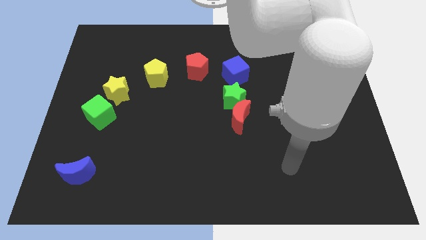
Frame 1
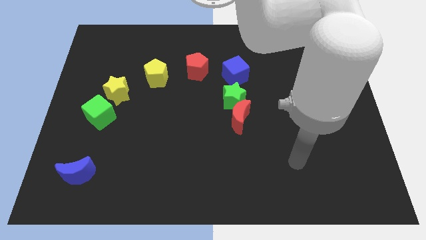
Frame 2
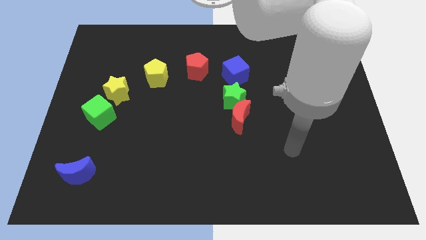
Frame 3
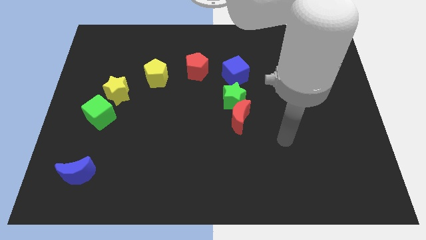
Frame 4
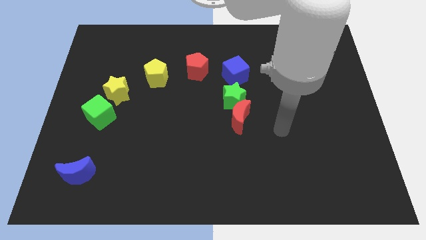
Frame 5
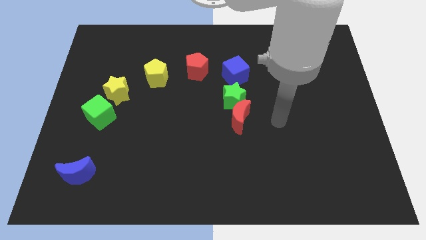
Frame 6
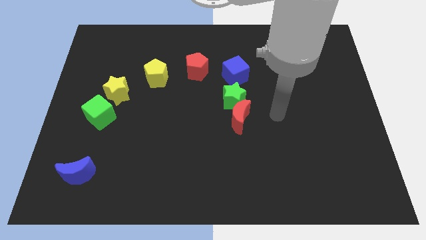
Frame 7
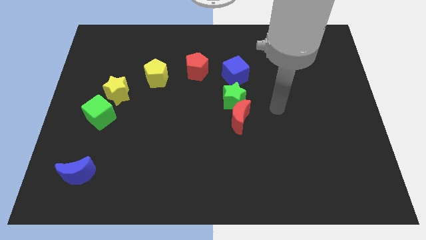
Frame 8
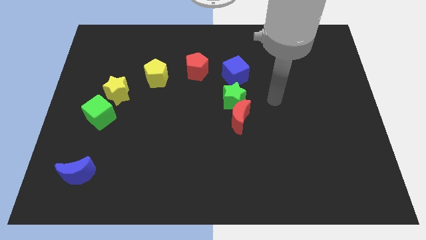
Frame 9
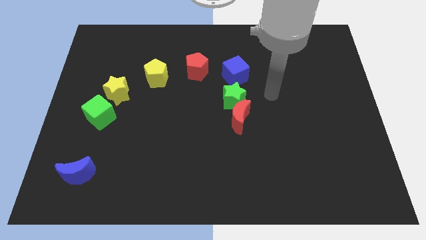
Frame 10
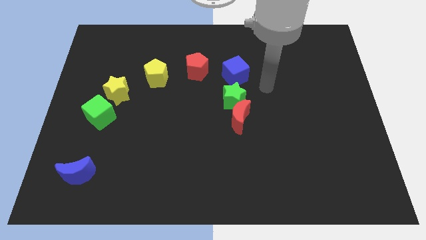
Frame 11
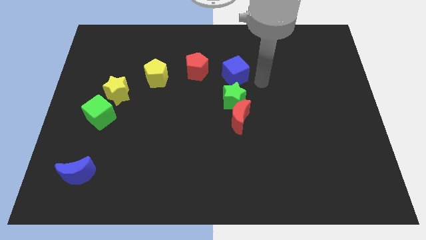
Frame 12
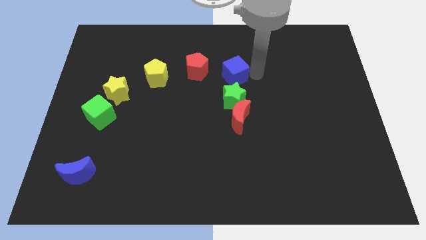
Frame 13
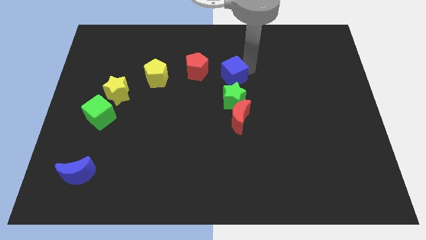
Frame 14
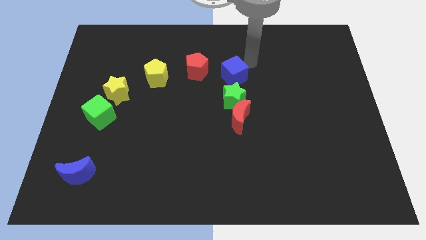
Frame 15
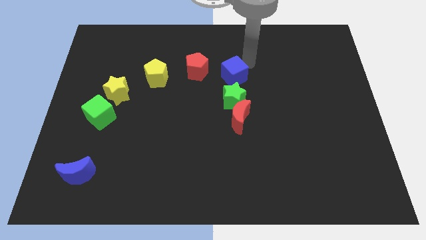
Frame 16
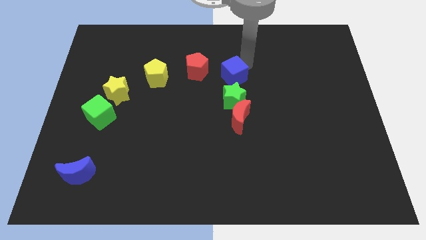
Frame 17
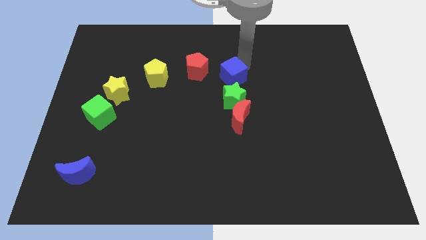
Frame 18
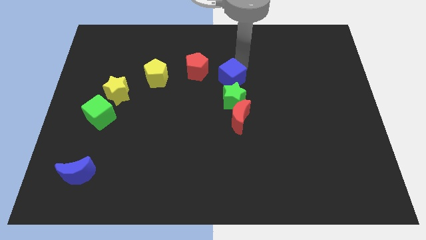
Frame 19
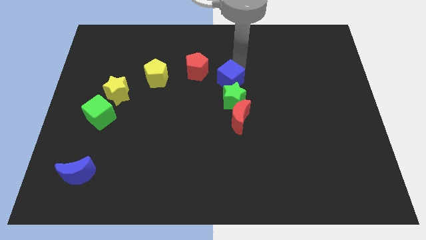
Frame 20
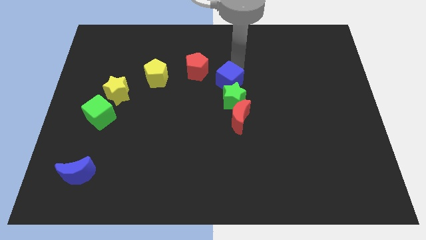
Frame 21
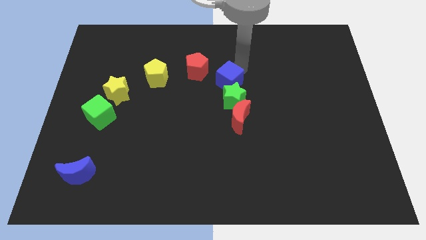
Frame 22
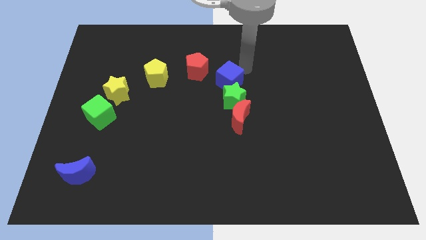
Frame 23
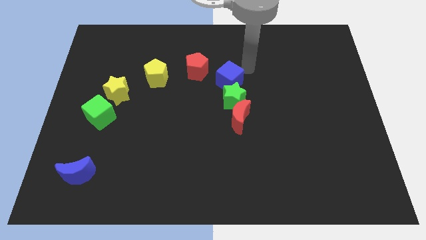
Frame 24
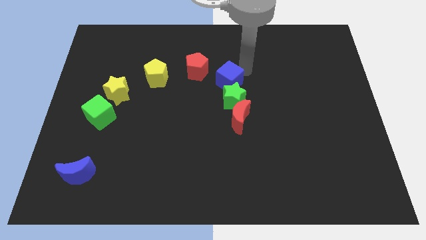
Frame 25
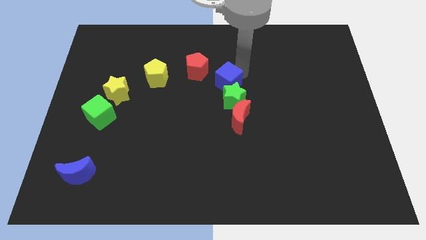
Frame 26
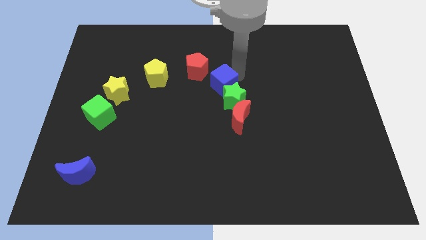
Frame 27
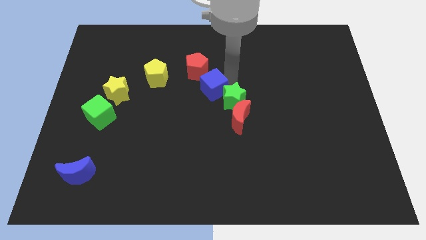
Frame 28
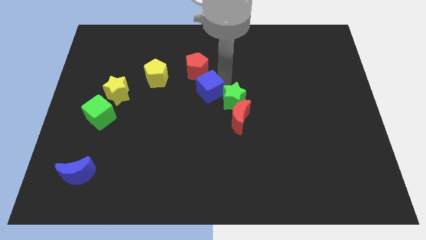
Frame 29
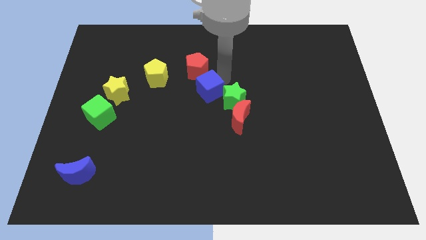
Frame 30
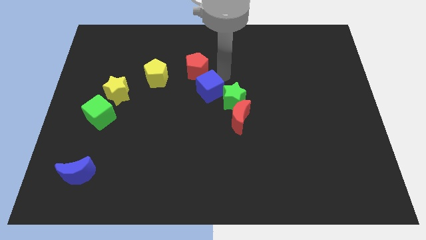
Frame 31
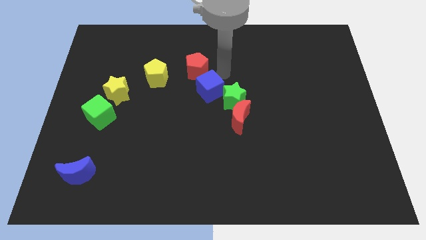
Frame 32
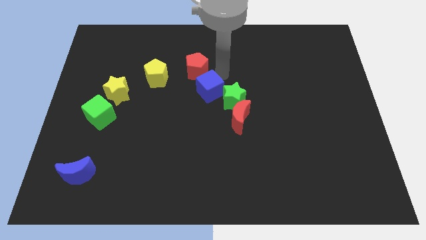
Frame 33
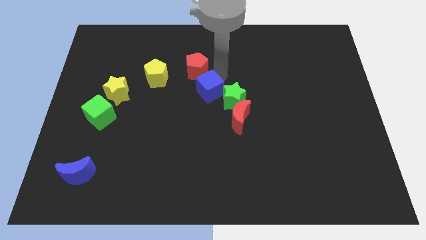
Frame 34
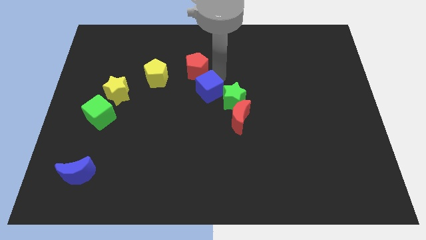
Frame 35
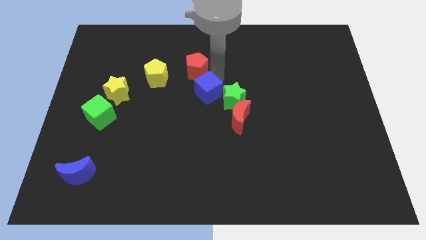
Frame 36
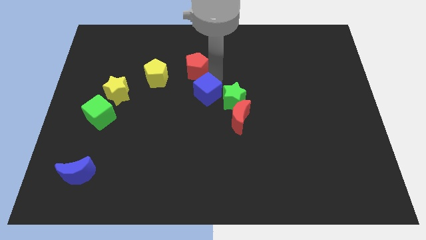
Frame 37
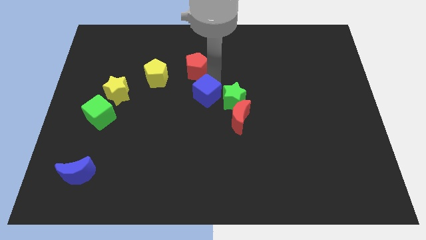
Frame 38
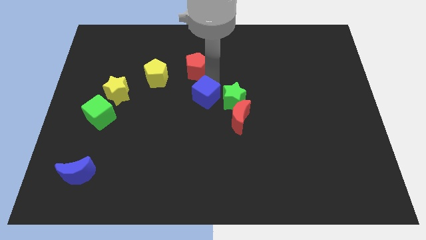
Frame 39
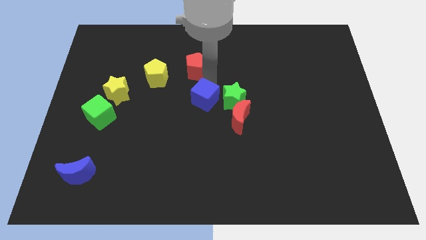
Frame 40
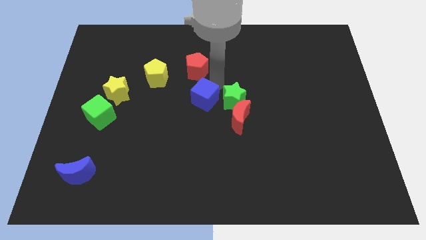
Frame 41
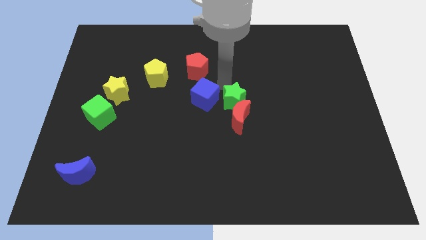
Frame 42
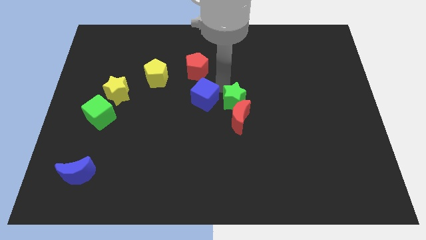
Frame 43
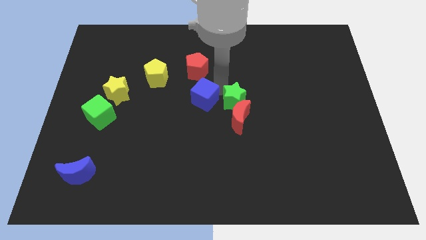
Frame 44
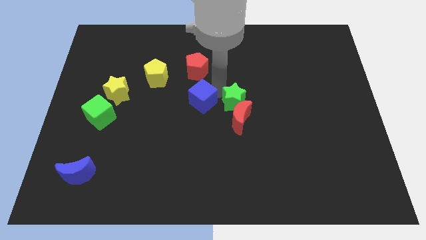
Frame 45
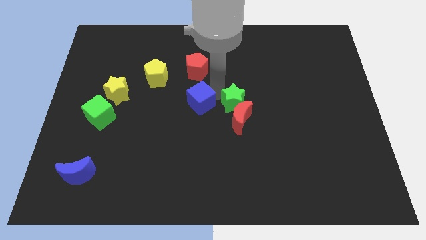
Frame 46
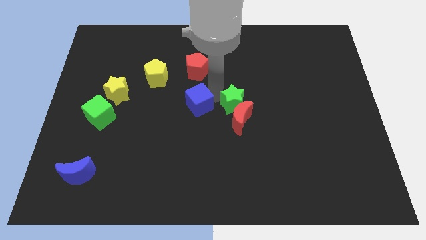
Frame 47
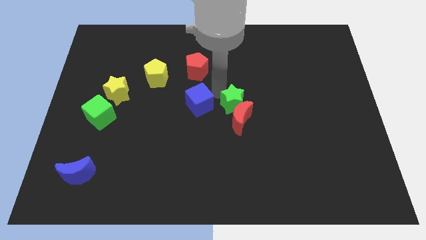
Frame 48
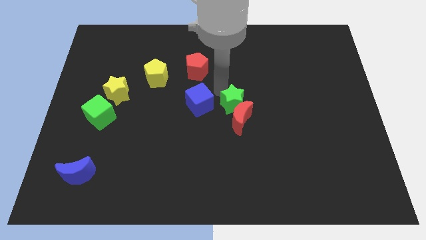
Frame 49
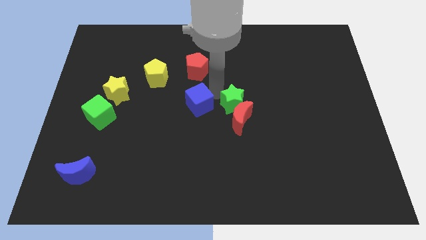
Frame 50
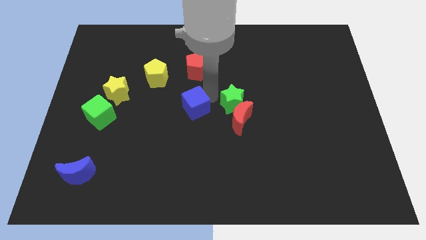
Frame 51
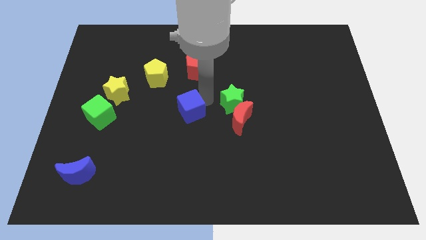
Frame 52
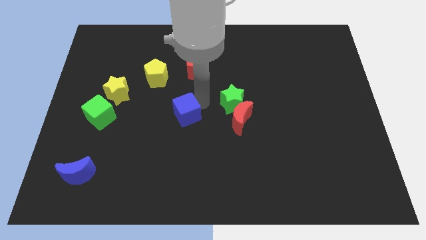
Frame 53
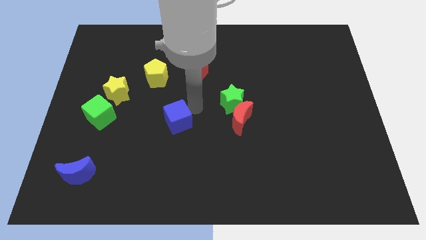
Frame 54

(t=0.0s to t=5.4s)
move the blue cube downwards and to the left

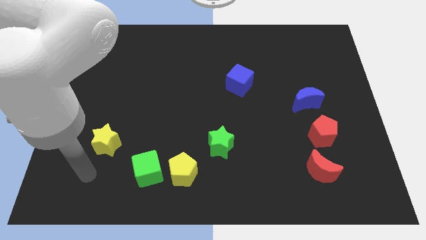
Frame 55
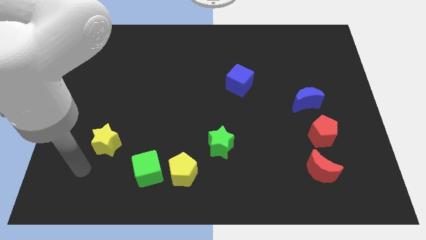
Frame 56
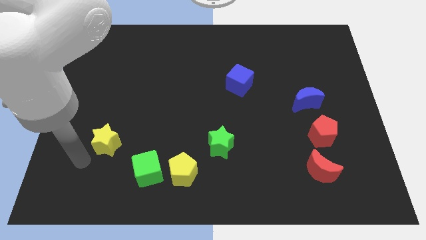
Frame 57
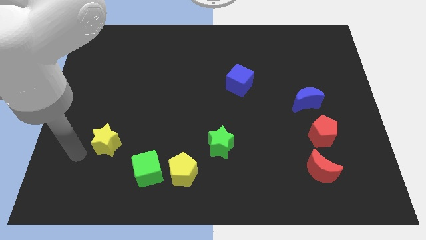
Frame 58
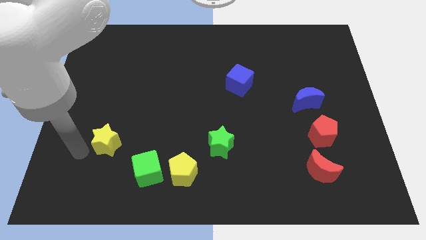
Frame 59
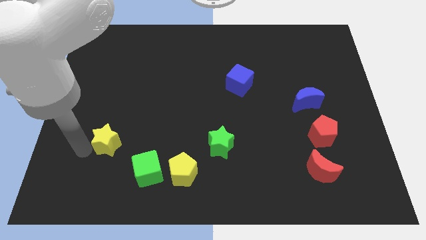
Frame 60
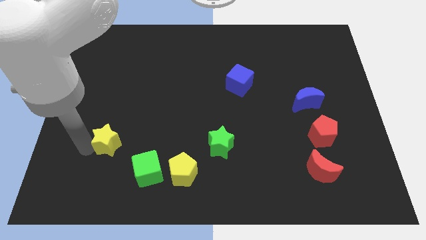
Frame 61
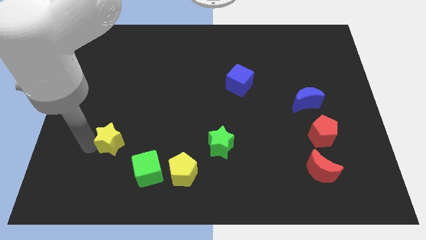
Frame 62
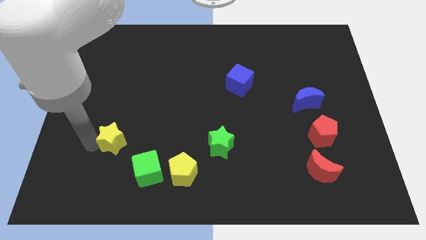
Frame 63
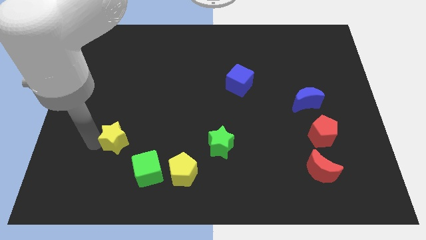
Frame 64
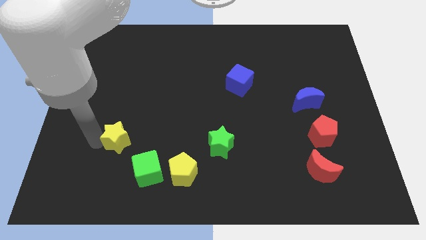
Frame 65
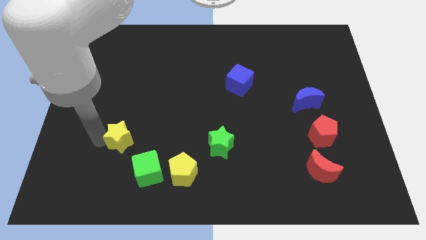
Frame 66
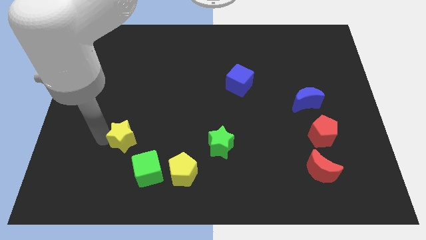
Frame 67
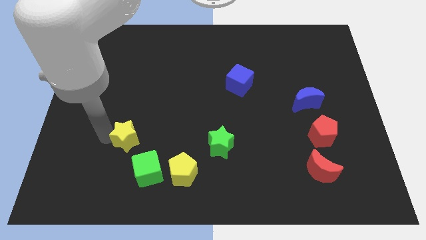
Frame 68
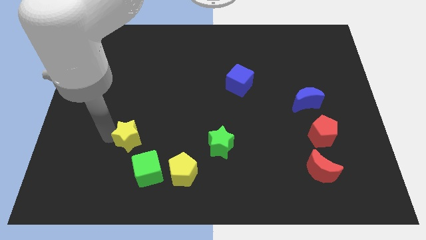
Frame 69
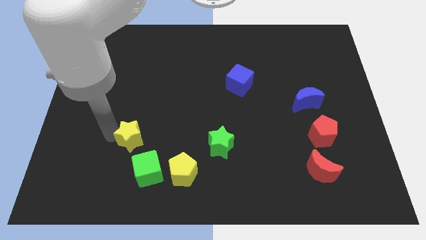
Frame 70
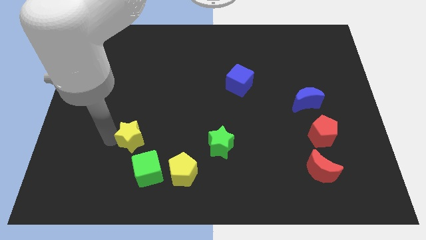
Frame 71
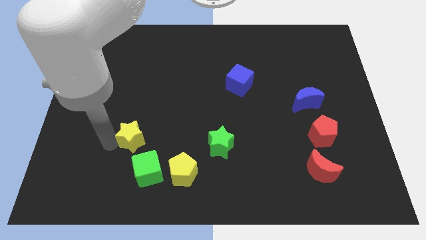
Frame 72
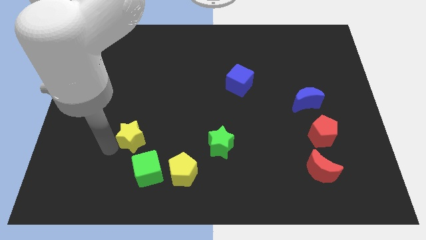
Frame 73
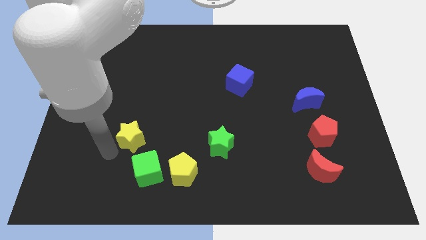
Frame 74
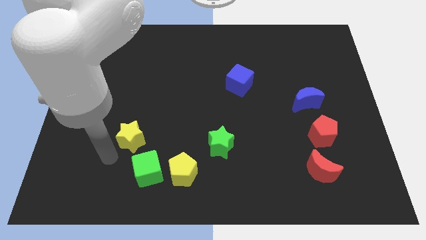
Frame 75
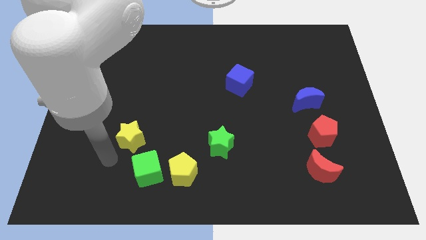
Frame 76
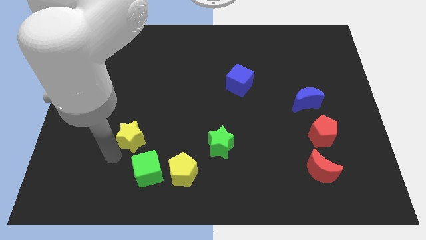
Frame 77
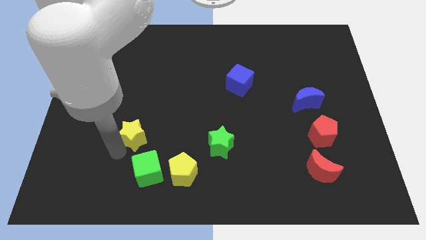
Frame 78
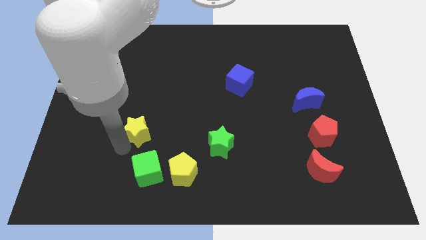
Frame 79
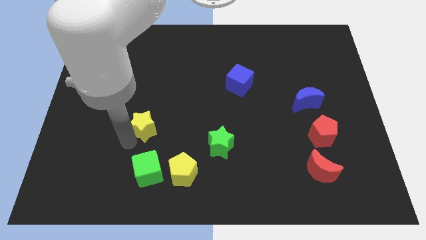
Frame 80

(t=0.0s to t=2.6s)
slide the yellow star somewhat upwards and then to the right

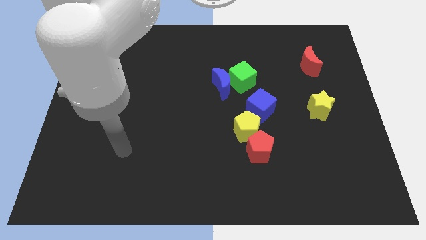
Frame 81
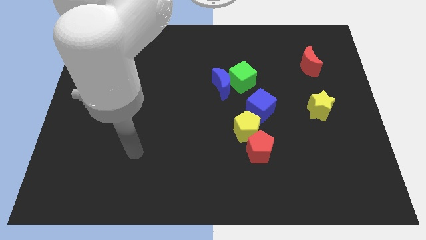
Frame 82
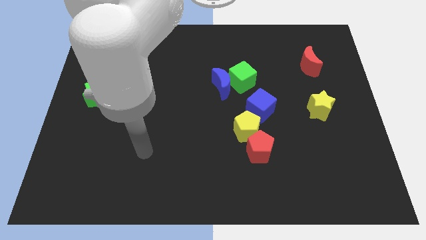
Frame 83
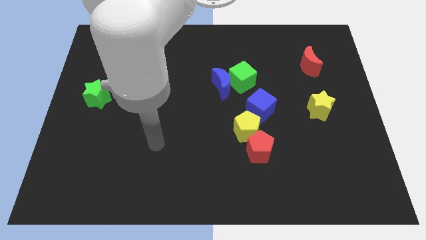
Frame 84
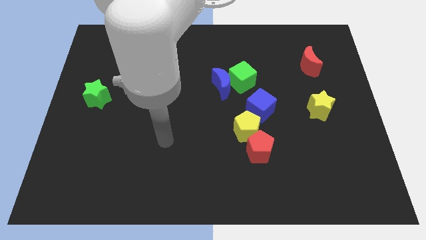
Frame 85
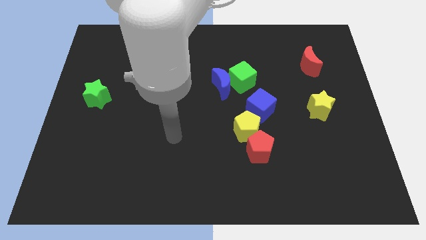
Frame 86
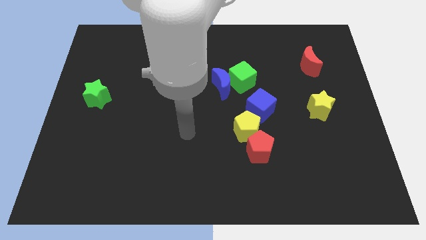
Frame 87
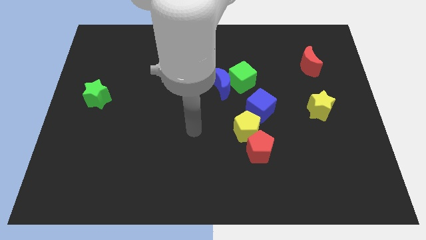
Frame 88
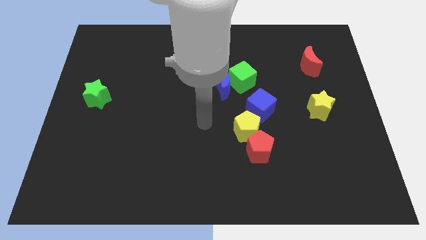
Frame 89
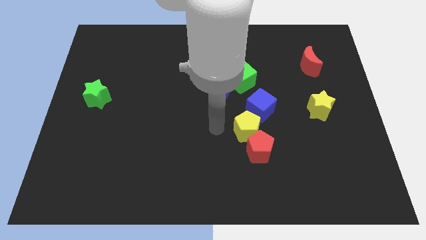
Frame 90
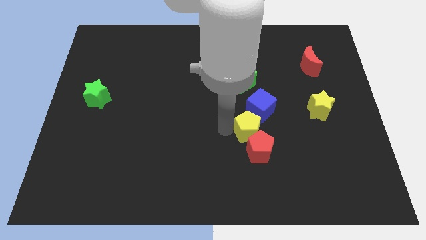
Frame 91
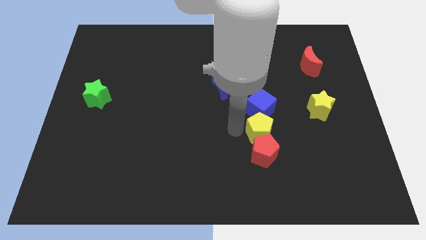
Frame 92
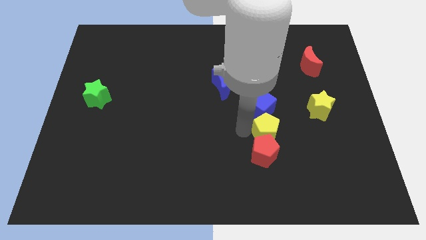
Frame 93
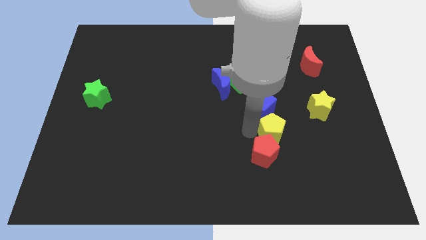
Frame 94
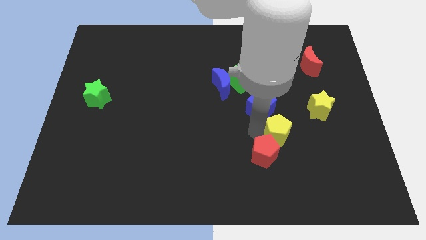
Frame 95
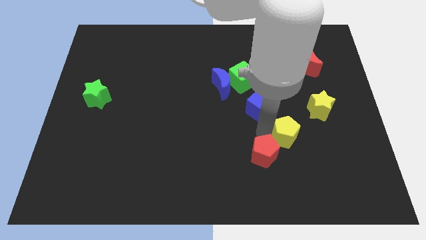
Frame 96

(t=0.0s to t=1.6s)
move the yellow pentagon to the right a little
